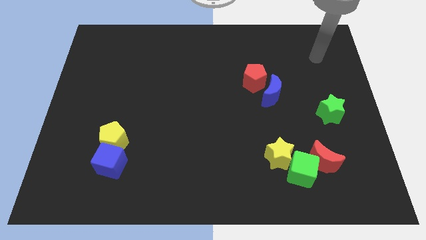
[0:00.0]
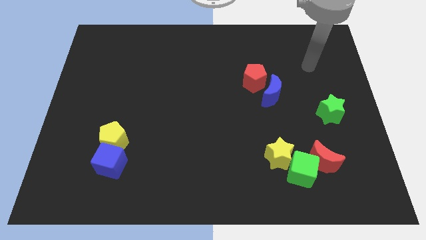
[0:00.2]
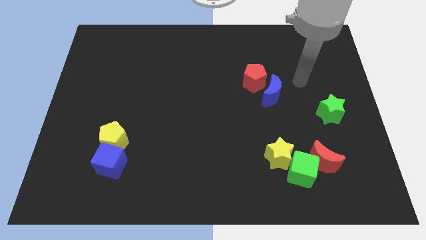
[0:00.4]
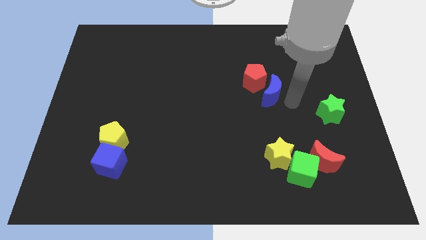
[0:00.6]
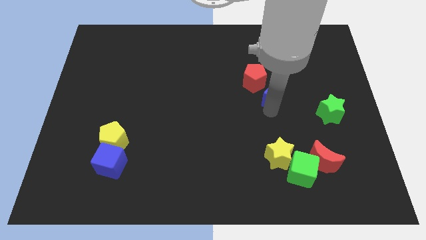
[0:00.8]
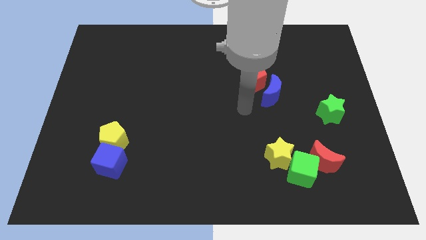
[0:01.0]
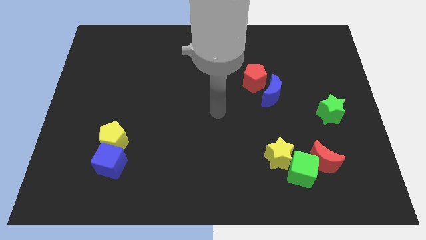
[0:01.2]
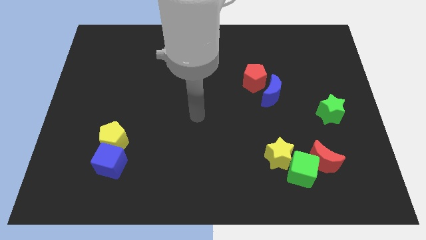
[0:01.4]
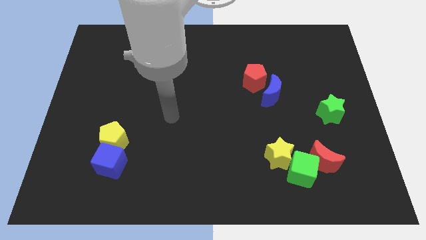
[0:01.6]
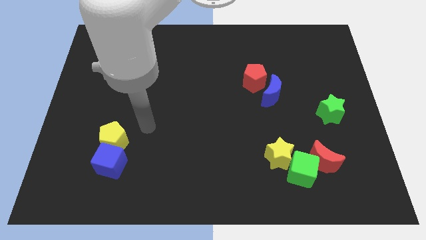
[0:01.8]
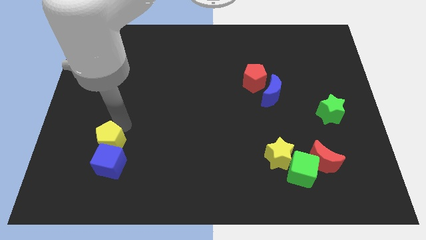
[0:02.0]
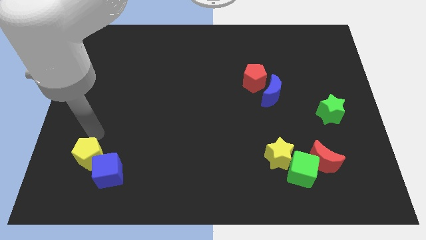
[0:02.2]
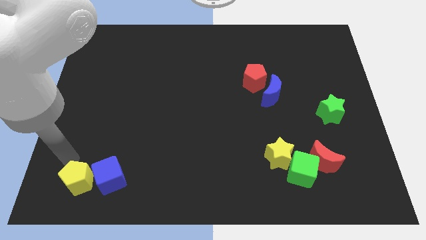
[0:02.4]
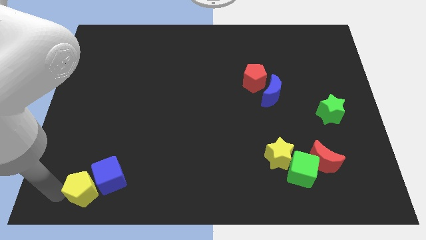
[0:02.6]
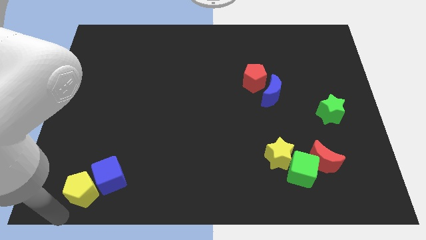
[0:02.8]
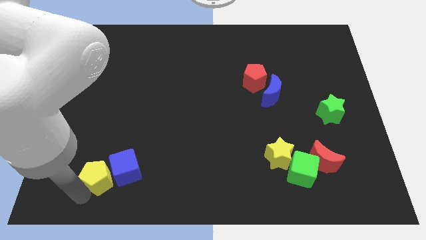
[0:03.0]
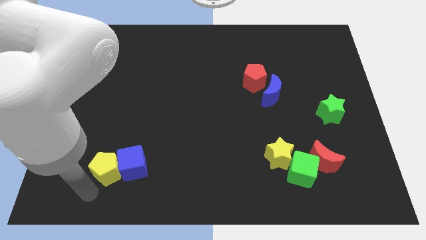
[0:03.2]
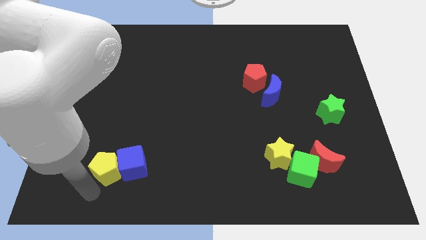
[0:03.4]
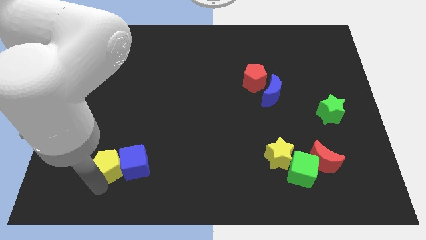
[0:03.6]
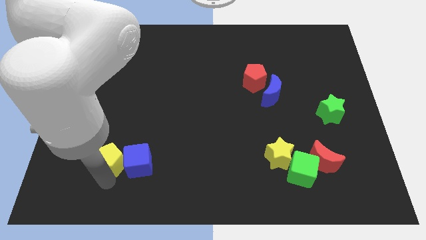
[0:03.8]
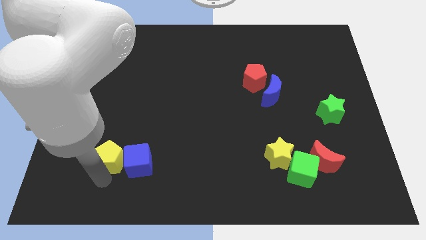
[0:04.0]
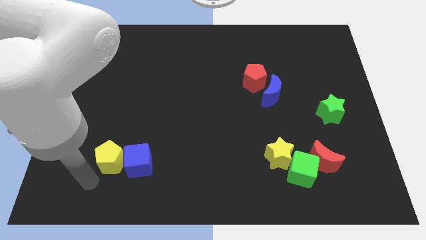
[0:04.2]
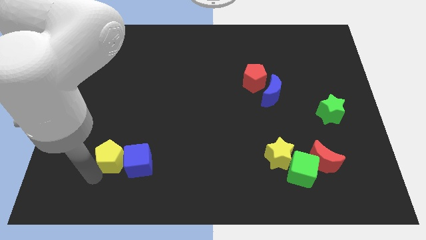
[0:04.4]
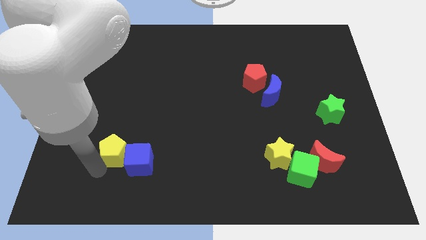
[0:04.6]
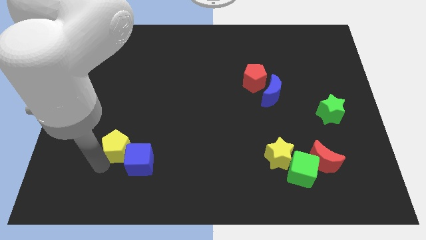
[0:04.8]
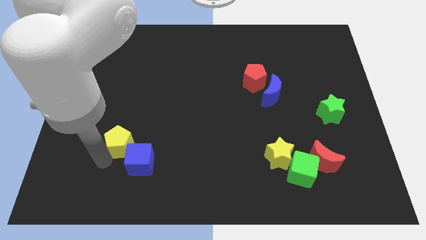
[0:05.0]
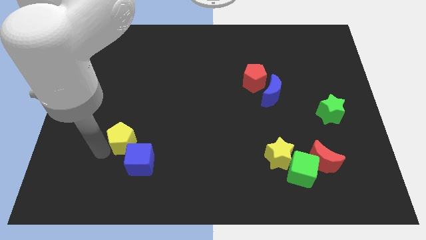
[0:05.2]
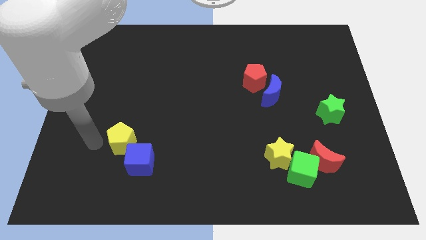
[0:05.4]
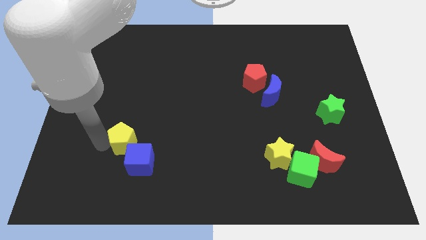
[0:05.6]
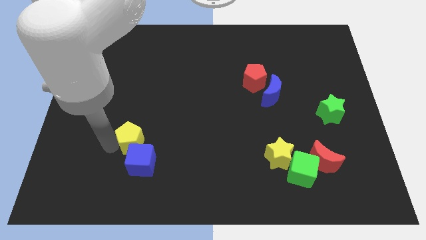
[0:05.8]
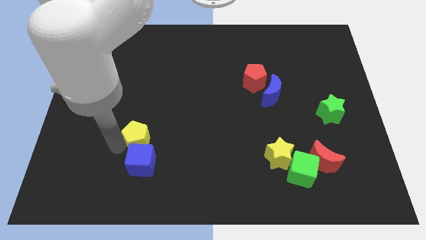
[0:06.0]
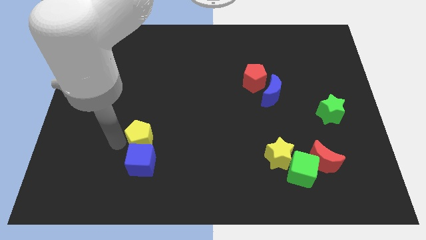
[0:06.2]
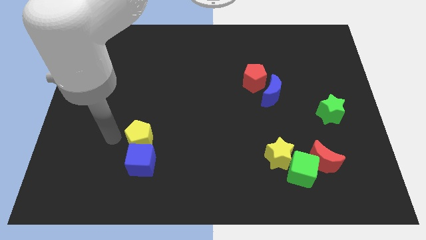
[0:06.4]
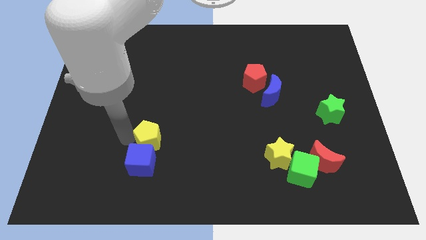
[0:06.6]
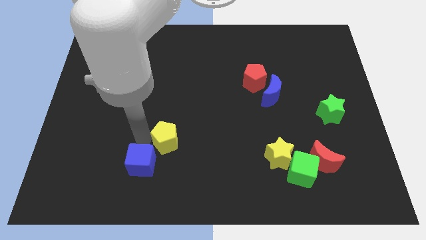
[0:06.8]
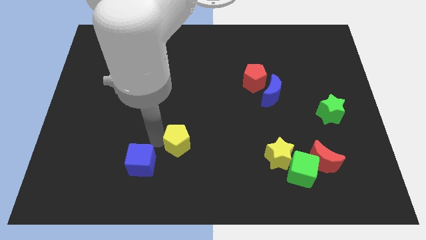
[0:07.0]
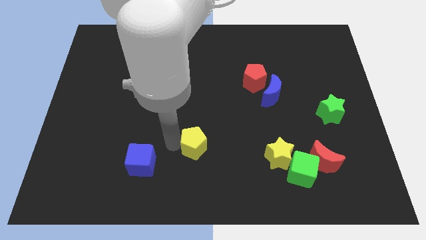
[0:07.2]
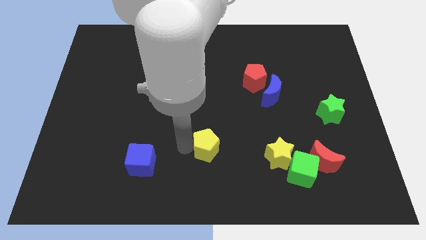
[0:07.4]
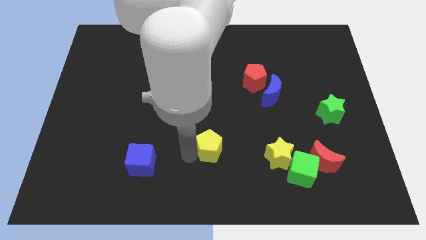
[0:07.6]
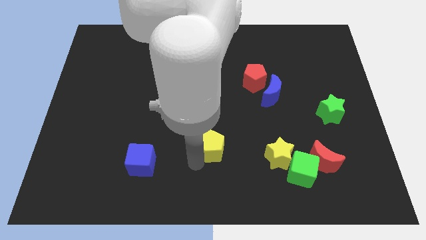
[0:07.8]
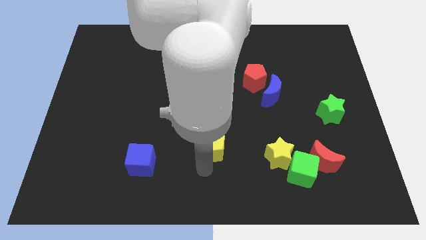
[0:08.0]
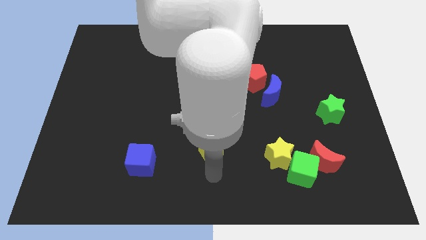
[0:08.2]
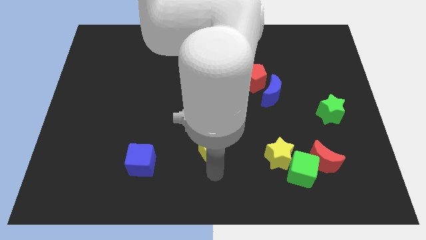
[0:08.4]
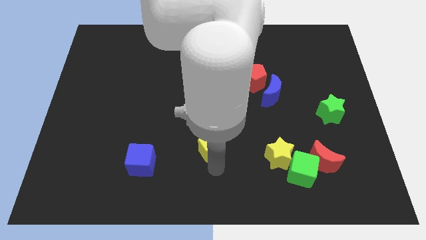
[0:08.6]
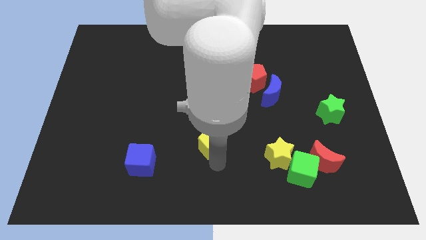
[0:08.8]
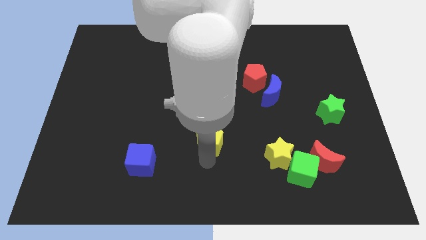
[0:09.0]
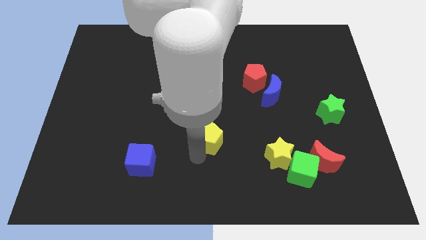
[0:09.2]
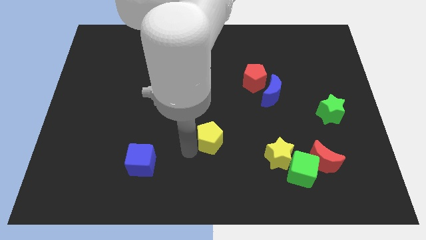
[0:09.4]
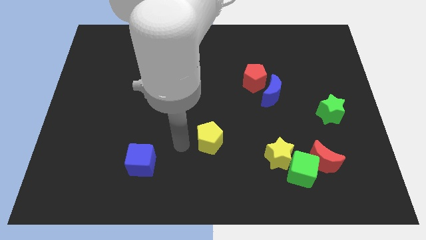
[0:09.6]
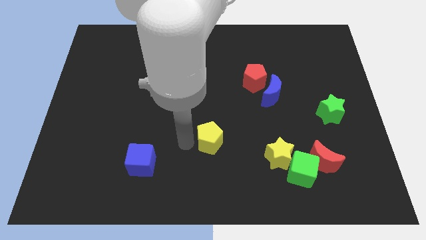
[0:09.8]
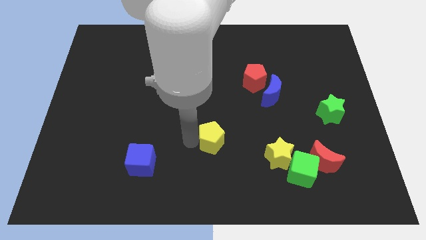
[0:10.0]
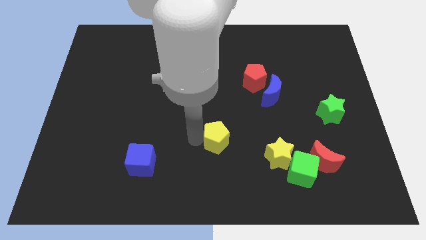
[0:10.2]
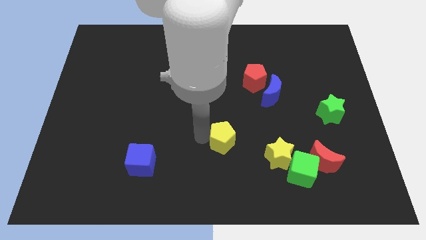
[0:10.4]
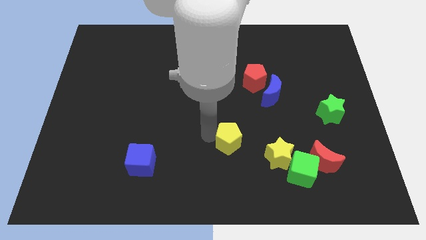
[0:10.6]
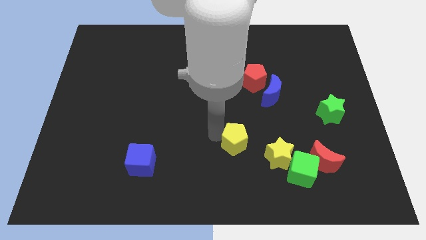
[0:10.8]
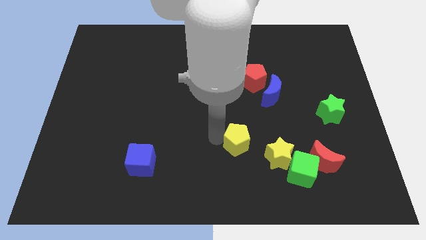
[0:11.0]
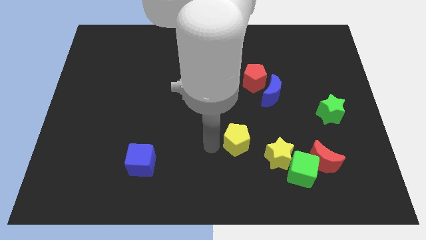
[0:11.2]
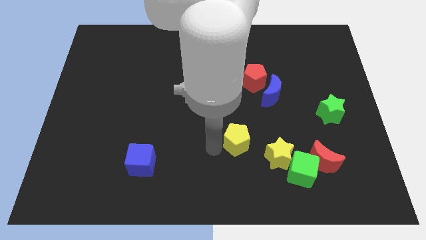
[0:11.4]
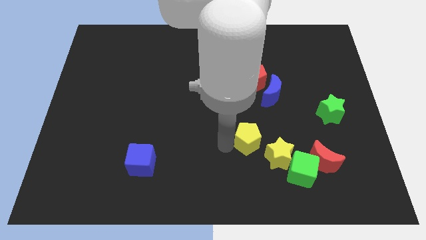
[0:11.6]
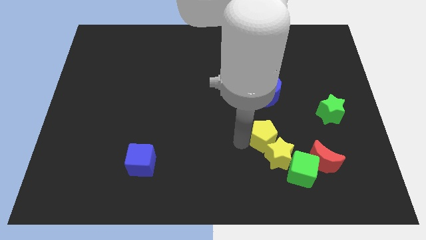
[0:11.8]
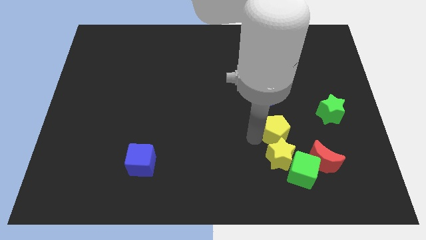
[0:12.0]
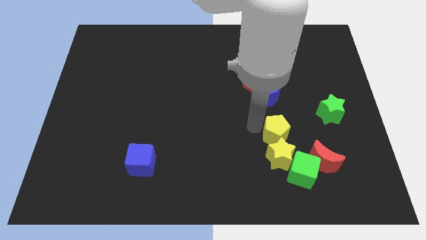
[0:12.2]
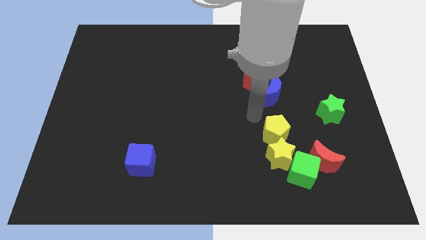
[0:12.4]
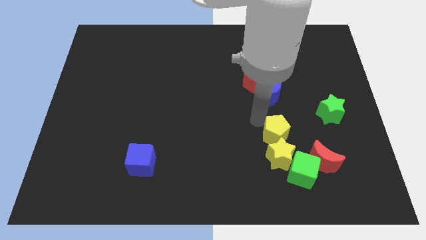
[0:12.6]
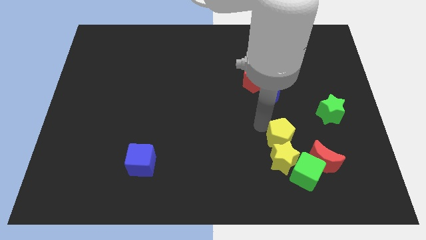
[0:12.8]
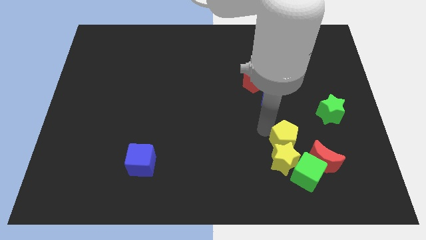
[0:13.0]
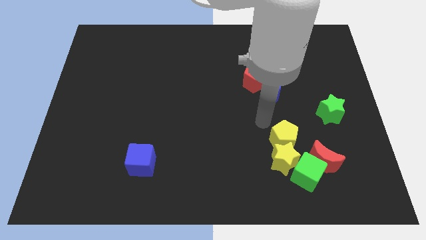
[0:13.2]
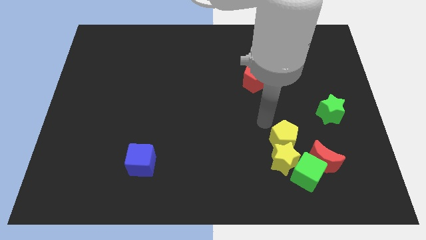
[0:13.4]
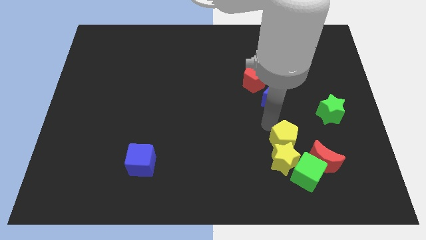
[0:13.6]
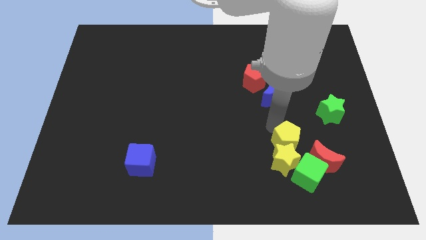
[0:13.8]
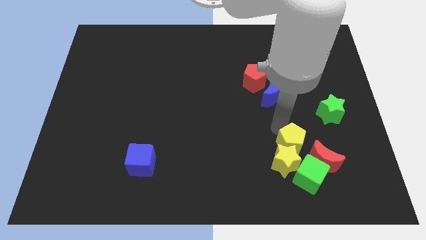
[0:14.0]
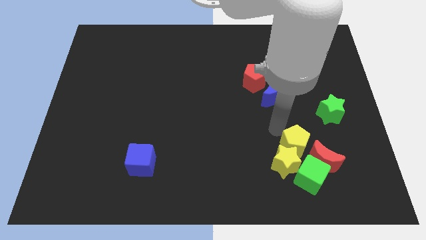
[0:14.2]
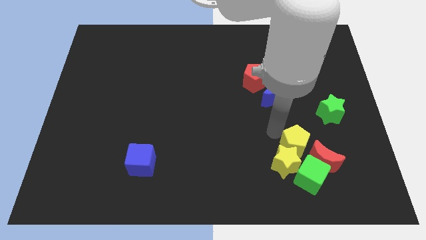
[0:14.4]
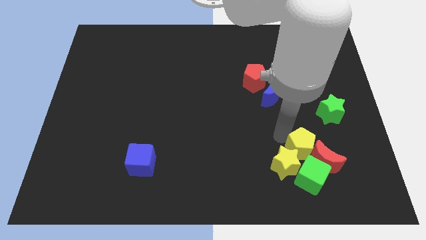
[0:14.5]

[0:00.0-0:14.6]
put the yellow pentagon close to the red moon
